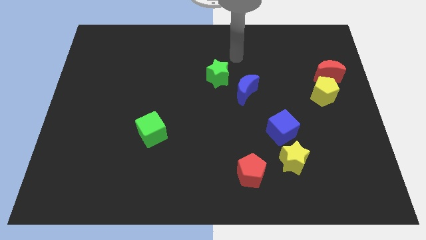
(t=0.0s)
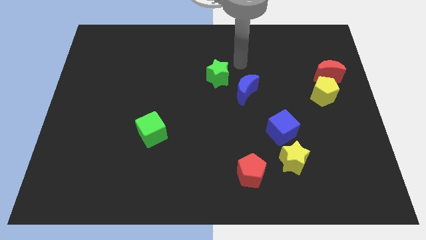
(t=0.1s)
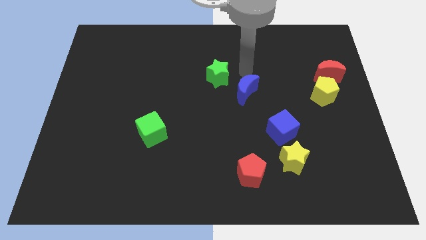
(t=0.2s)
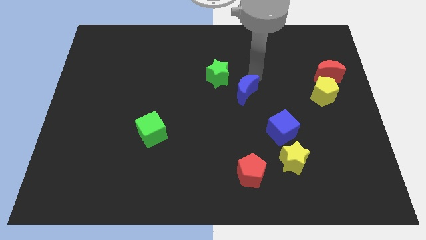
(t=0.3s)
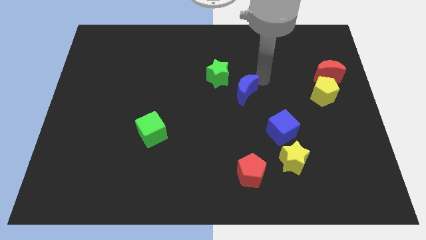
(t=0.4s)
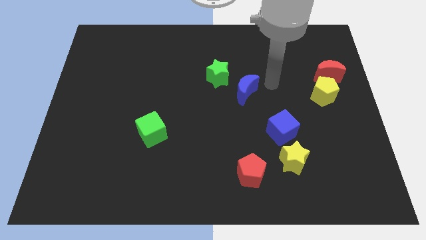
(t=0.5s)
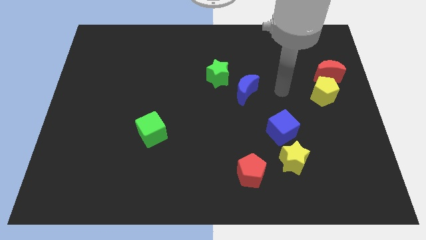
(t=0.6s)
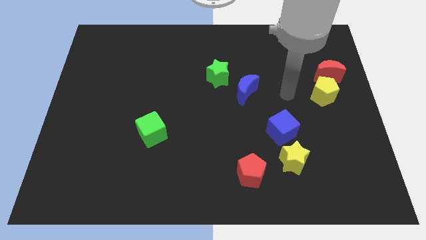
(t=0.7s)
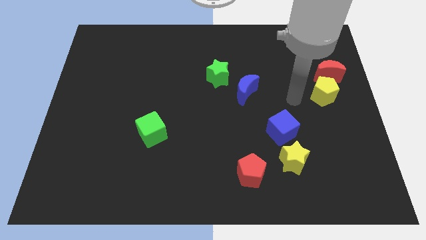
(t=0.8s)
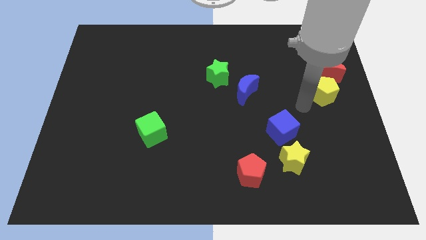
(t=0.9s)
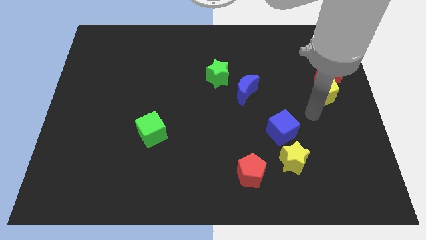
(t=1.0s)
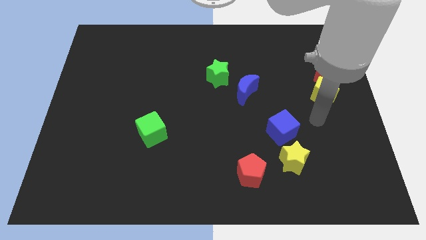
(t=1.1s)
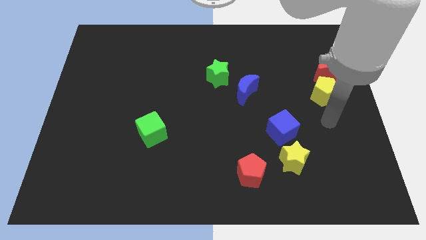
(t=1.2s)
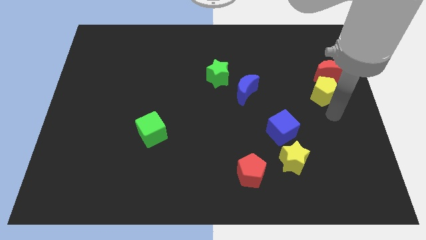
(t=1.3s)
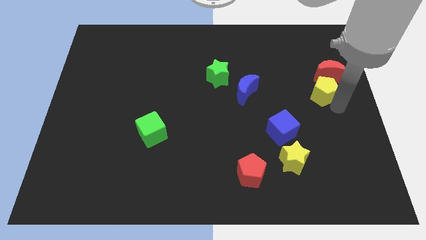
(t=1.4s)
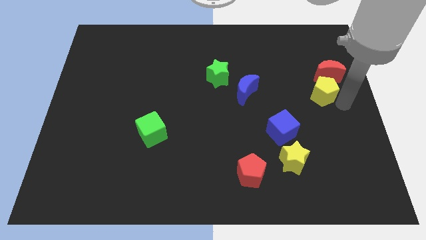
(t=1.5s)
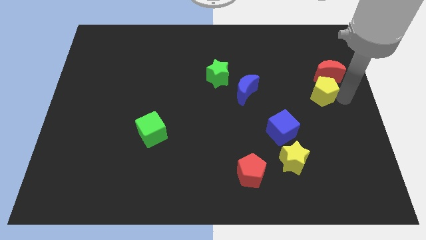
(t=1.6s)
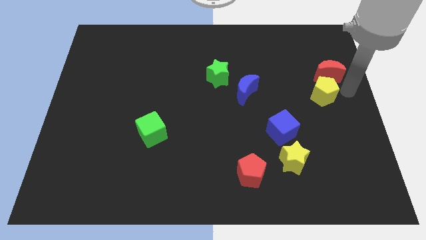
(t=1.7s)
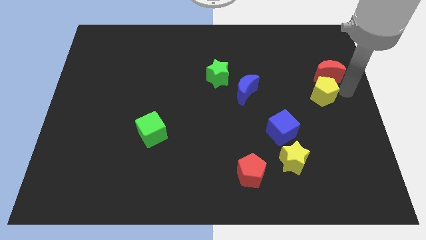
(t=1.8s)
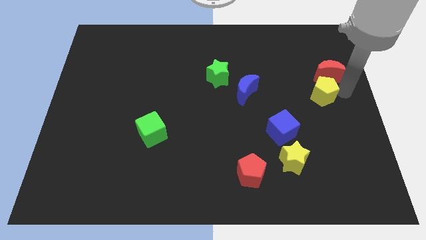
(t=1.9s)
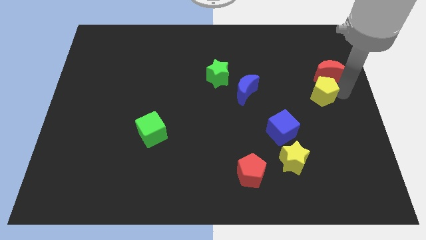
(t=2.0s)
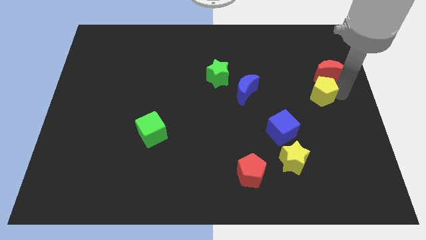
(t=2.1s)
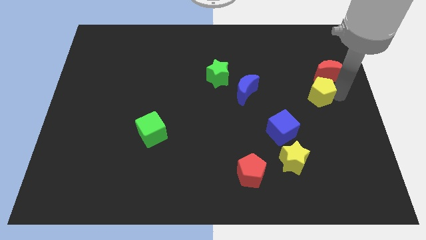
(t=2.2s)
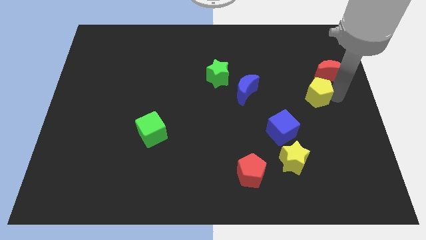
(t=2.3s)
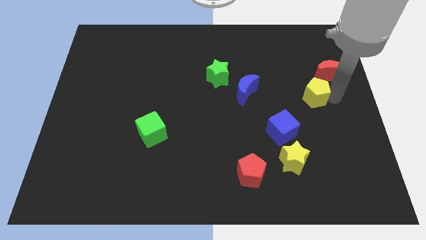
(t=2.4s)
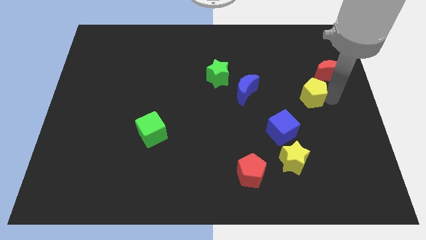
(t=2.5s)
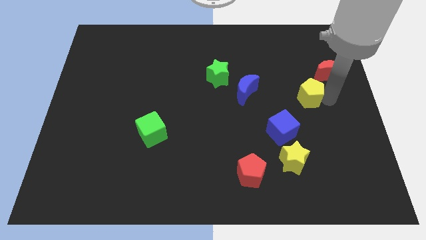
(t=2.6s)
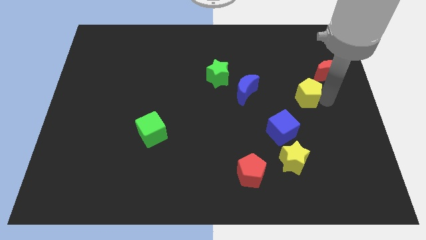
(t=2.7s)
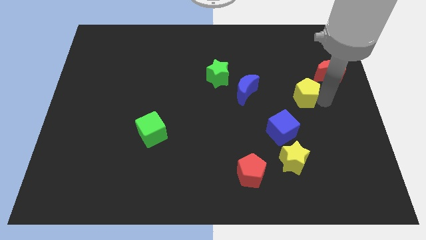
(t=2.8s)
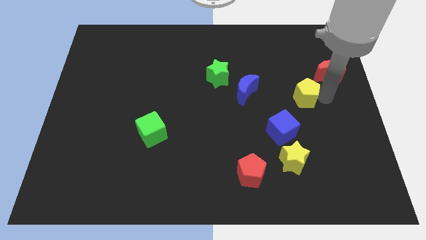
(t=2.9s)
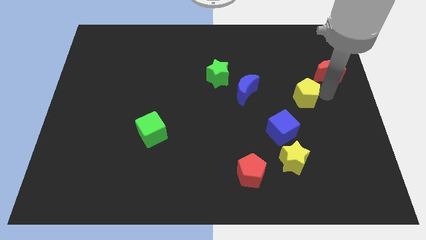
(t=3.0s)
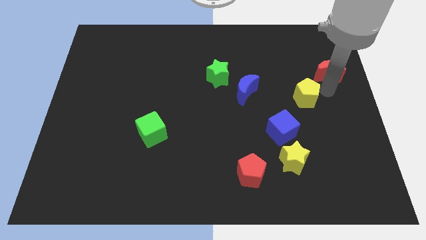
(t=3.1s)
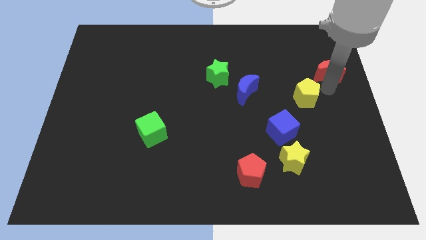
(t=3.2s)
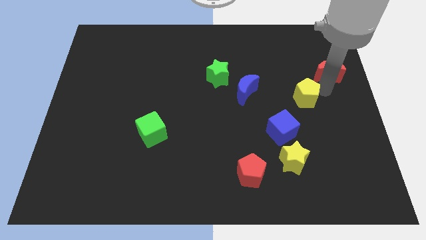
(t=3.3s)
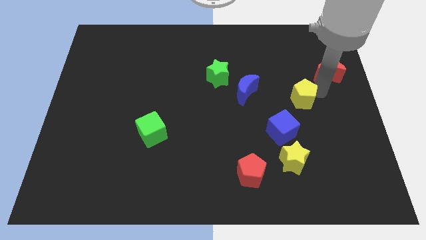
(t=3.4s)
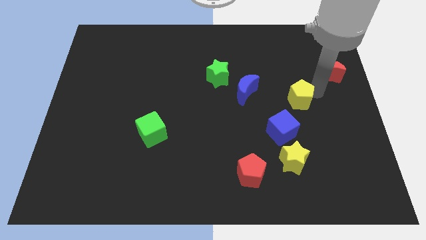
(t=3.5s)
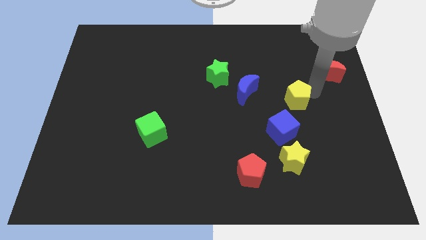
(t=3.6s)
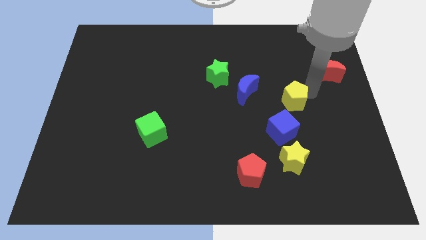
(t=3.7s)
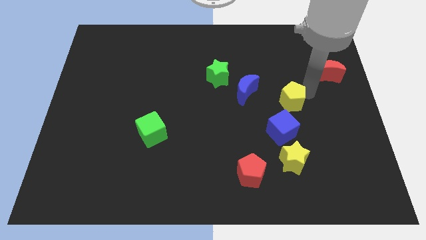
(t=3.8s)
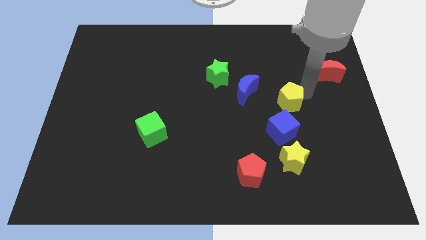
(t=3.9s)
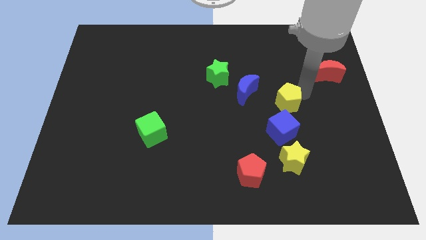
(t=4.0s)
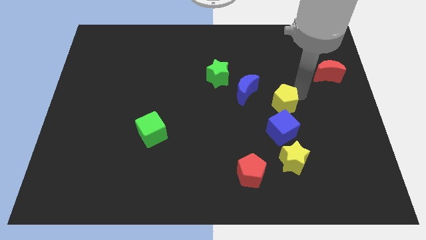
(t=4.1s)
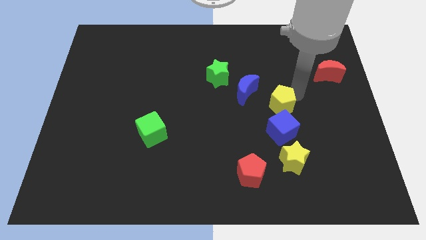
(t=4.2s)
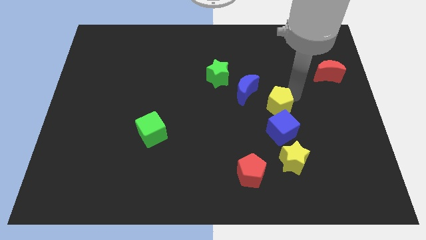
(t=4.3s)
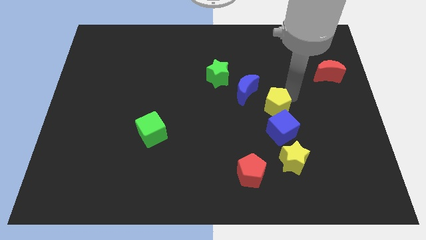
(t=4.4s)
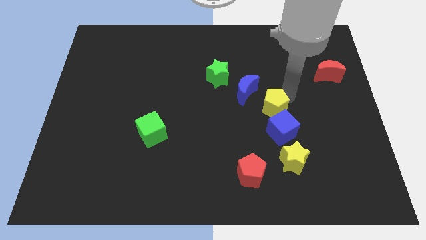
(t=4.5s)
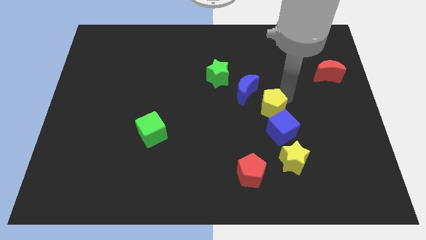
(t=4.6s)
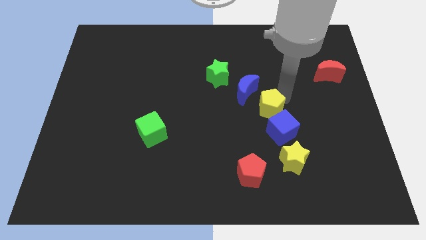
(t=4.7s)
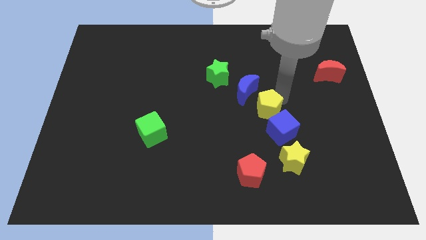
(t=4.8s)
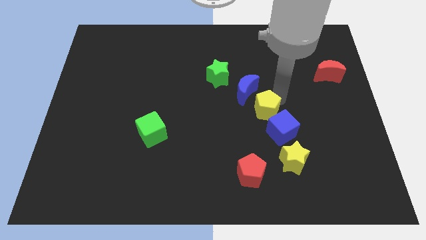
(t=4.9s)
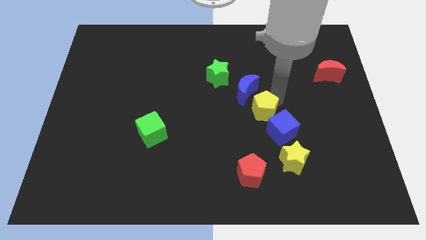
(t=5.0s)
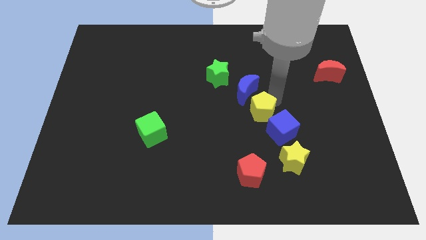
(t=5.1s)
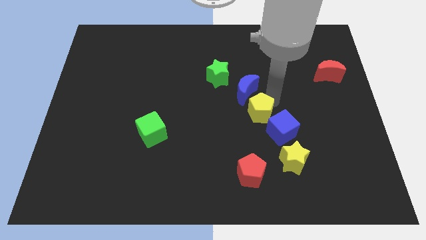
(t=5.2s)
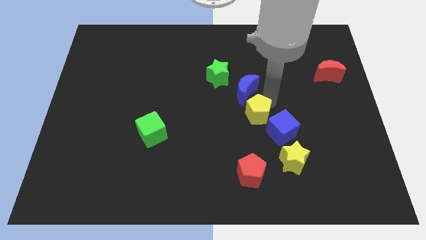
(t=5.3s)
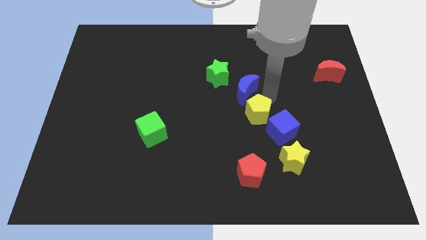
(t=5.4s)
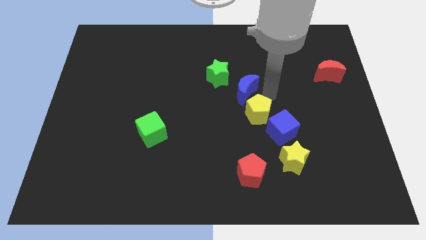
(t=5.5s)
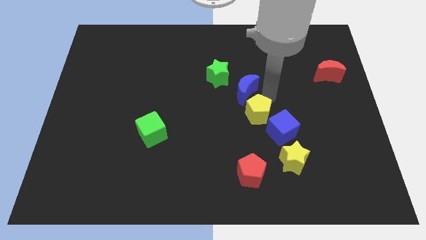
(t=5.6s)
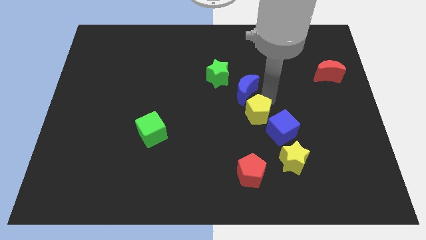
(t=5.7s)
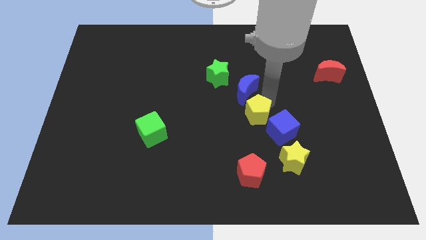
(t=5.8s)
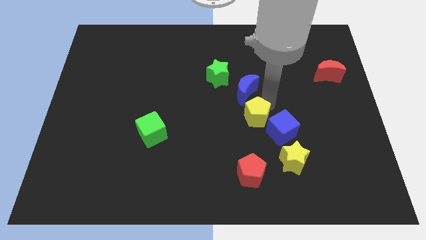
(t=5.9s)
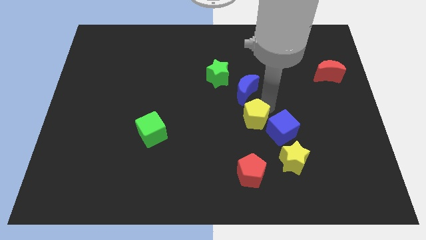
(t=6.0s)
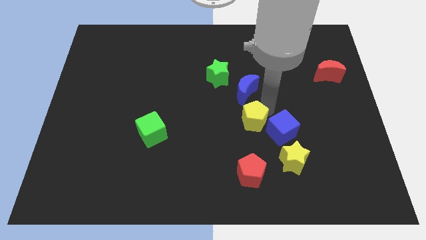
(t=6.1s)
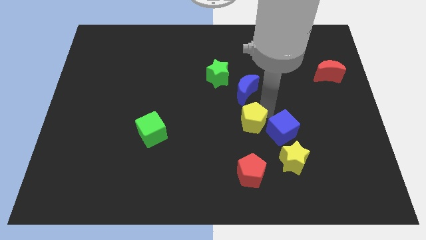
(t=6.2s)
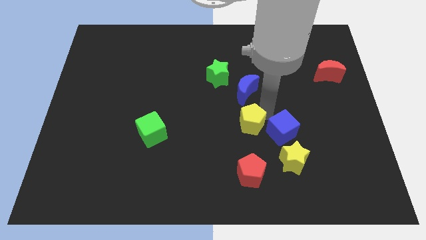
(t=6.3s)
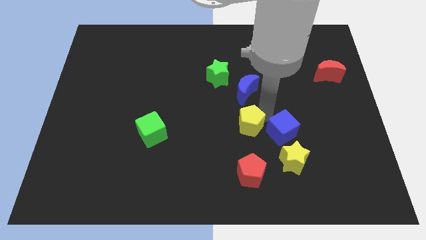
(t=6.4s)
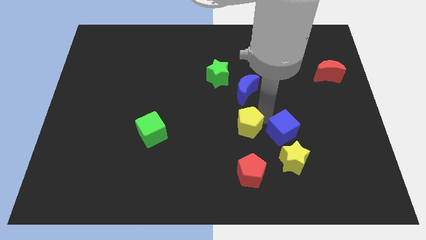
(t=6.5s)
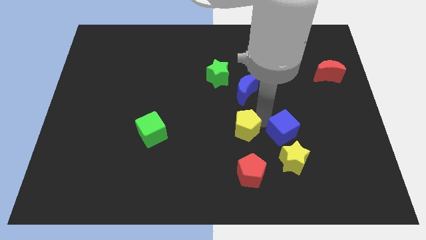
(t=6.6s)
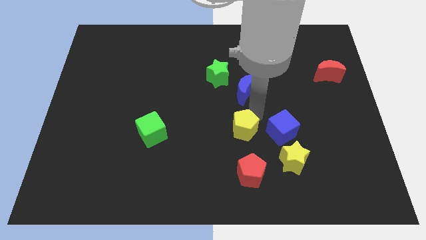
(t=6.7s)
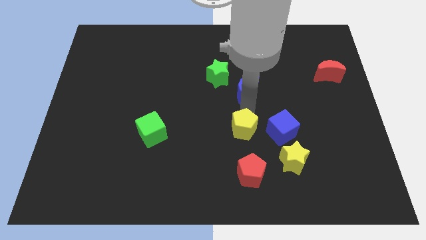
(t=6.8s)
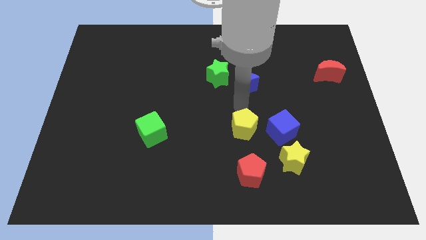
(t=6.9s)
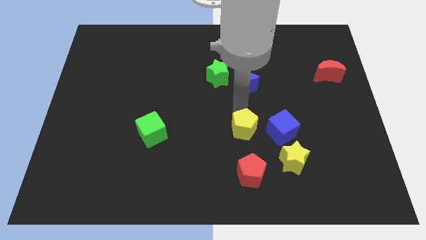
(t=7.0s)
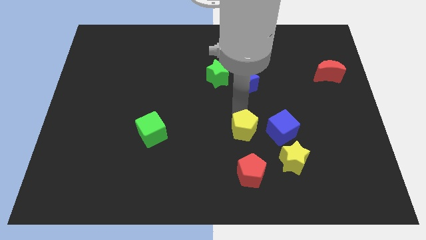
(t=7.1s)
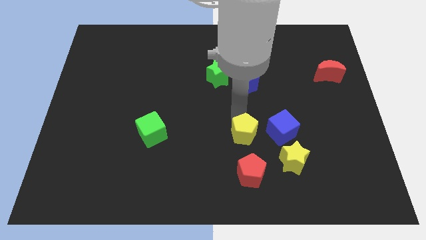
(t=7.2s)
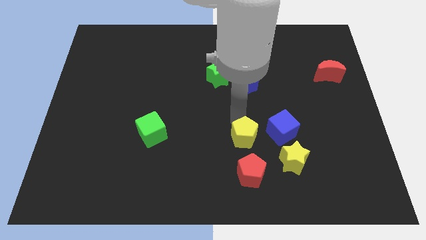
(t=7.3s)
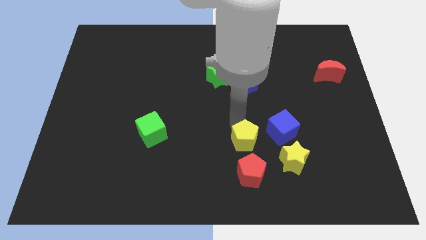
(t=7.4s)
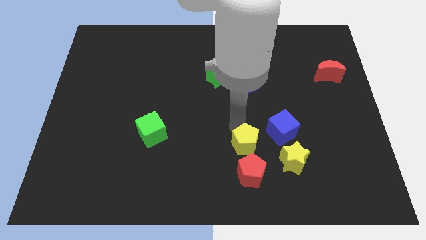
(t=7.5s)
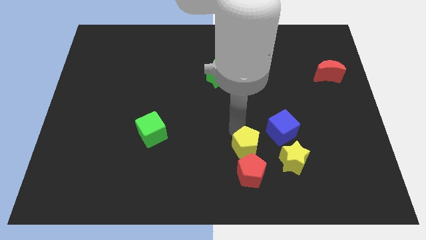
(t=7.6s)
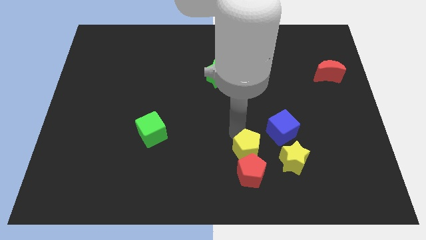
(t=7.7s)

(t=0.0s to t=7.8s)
slide the yellow pentagon close to the red pentagon
